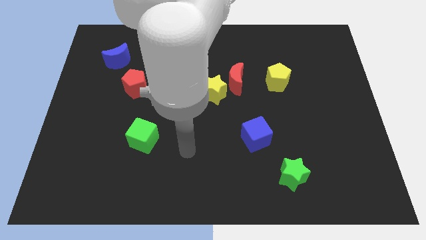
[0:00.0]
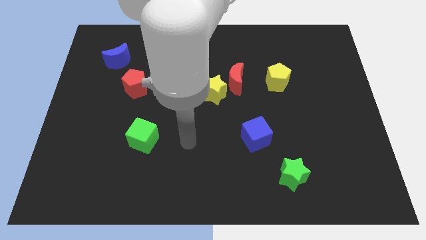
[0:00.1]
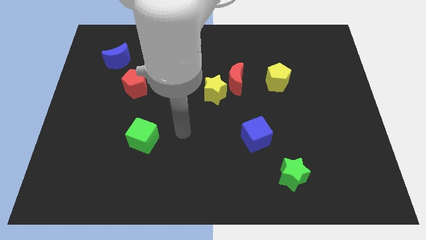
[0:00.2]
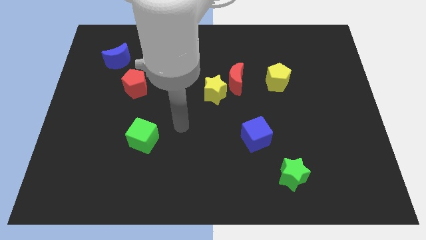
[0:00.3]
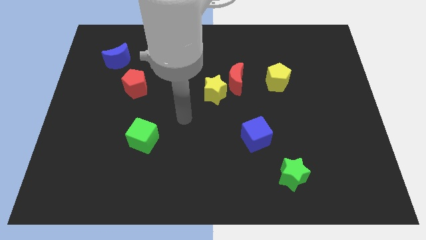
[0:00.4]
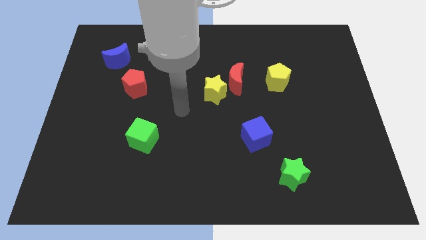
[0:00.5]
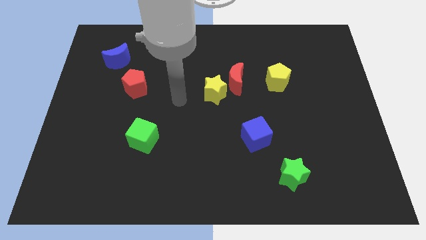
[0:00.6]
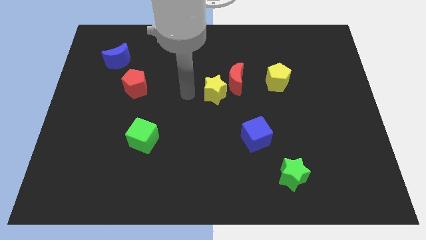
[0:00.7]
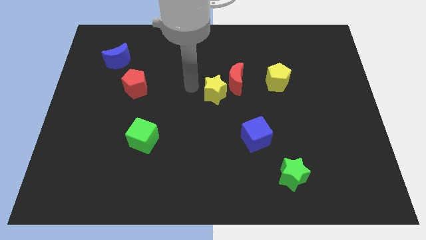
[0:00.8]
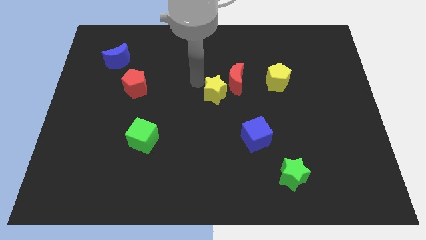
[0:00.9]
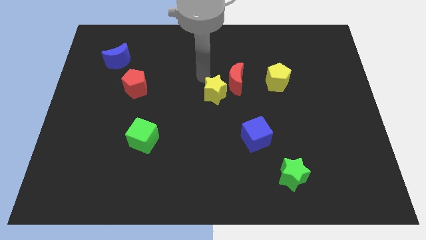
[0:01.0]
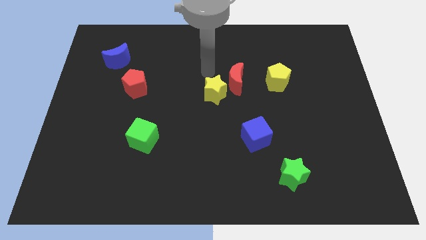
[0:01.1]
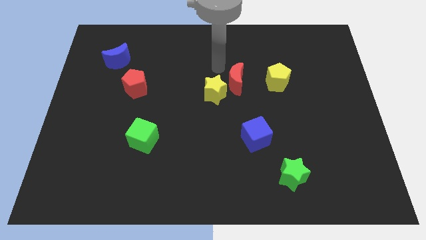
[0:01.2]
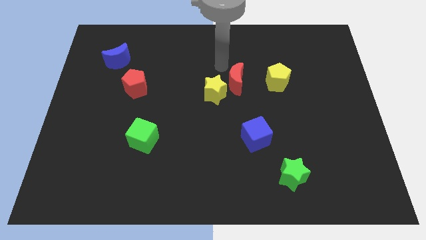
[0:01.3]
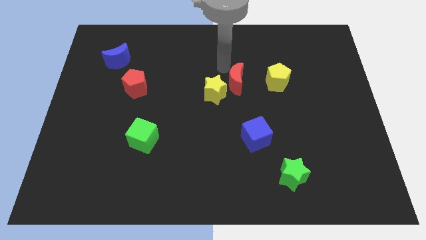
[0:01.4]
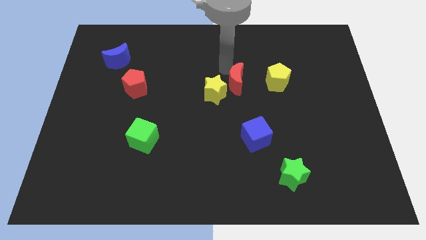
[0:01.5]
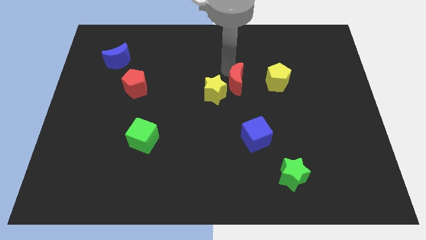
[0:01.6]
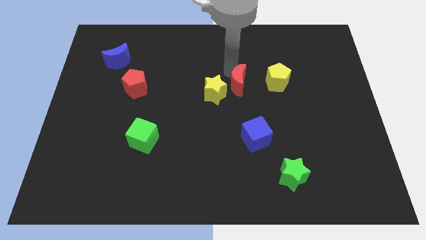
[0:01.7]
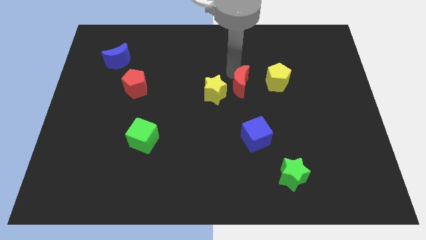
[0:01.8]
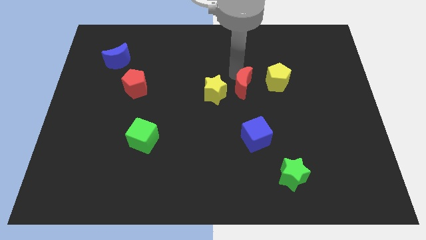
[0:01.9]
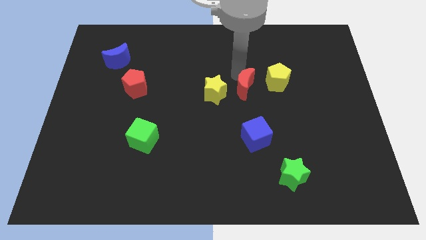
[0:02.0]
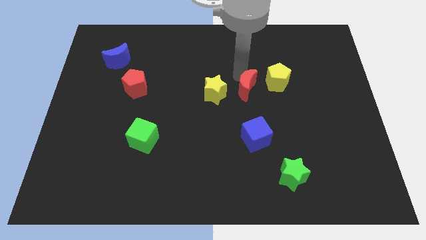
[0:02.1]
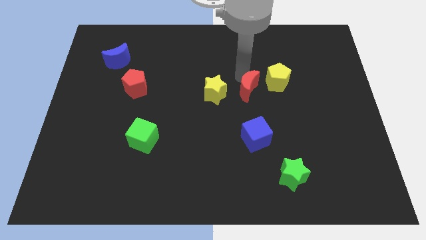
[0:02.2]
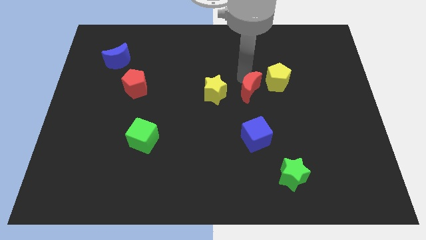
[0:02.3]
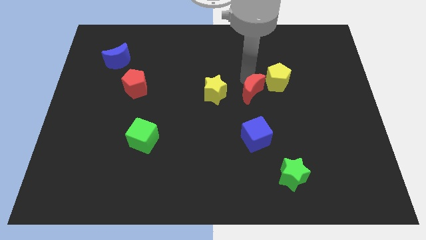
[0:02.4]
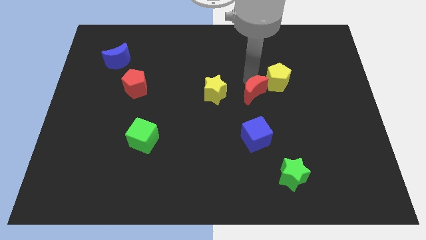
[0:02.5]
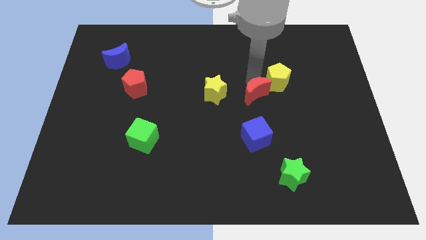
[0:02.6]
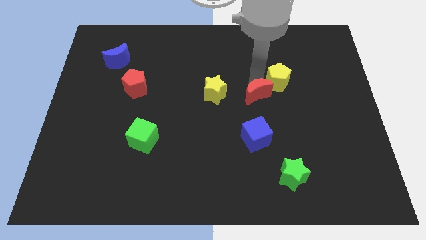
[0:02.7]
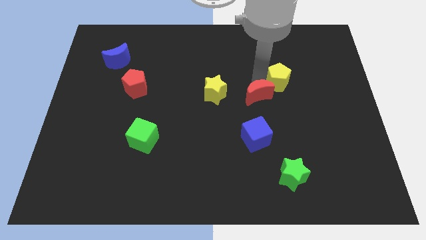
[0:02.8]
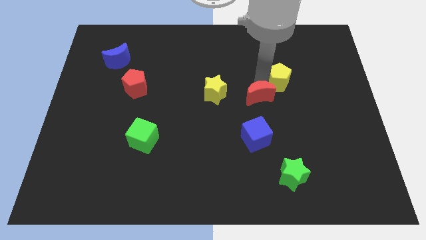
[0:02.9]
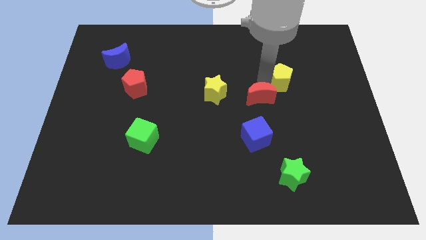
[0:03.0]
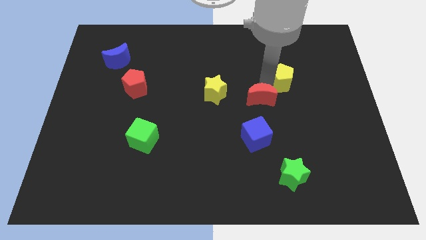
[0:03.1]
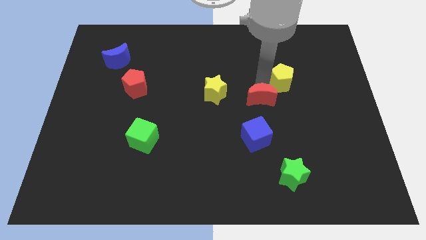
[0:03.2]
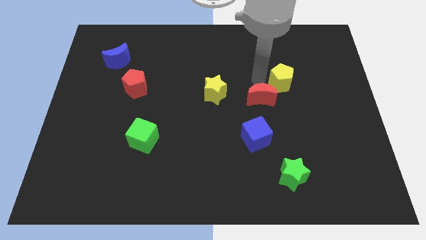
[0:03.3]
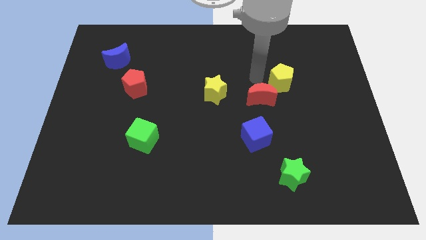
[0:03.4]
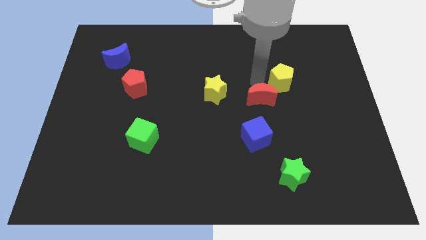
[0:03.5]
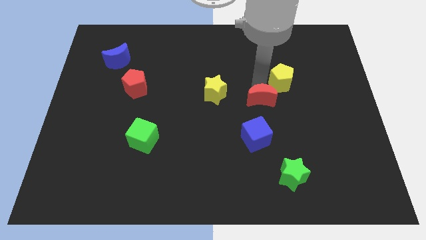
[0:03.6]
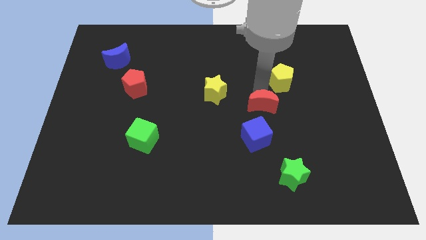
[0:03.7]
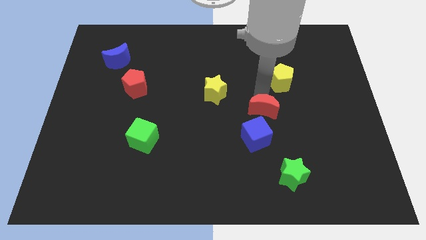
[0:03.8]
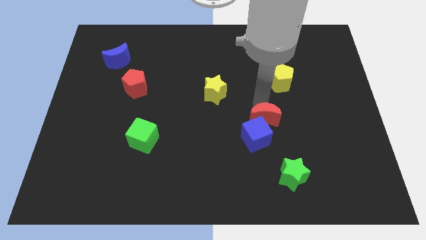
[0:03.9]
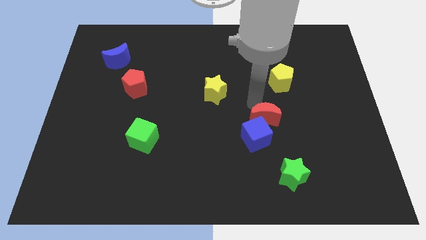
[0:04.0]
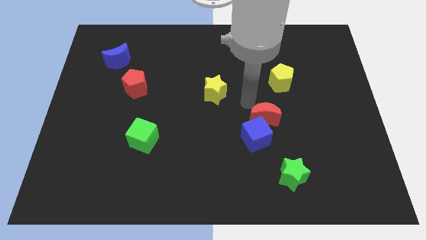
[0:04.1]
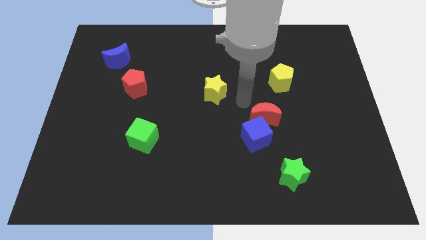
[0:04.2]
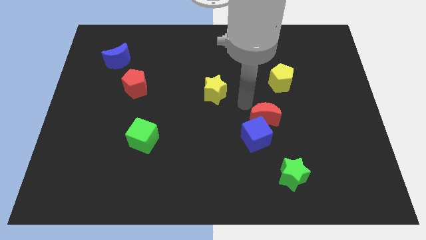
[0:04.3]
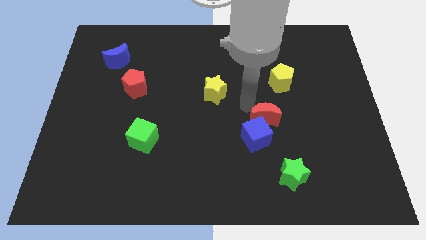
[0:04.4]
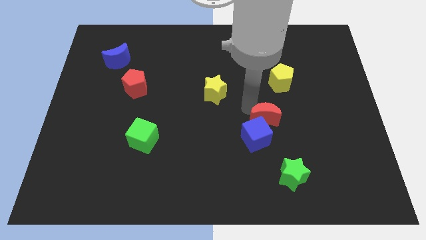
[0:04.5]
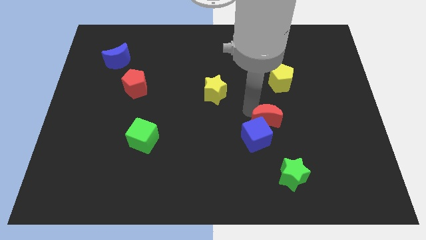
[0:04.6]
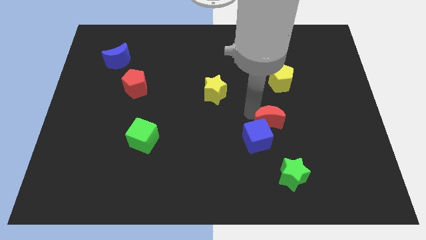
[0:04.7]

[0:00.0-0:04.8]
move the red moon to the top side of the green star

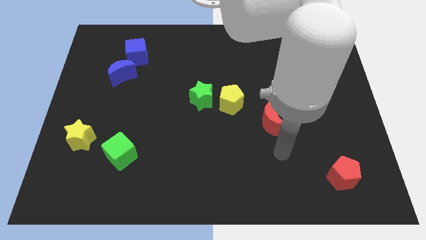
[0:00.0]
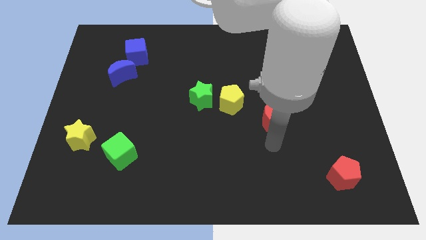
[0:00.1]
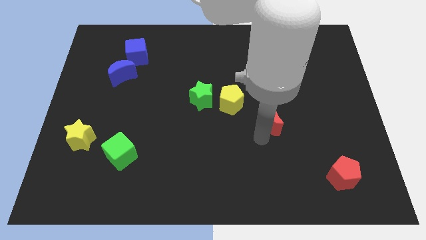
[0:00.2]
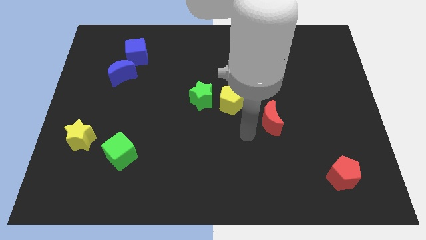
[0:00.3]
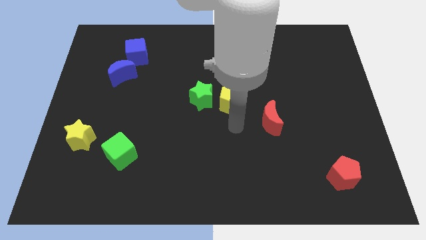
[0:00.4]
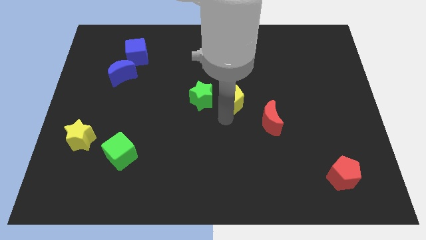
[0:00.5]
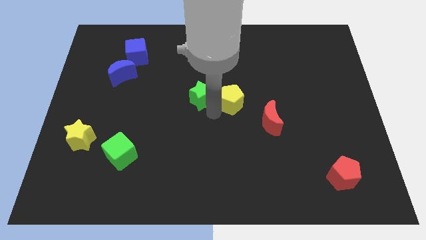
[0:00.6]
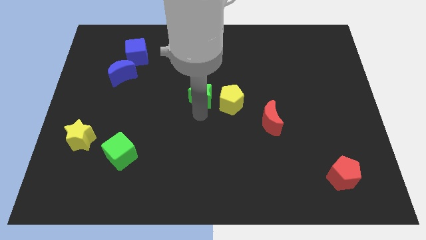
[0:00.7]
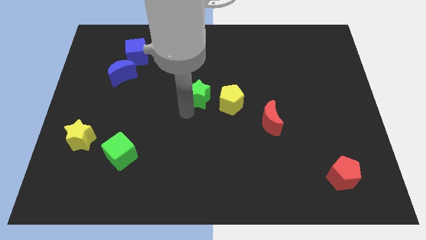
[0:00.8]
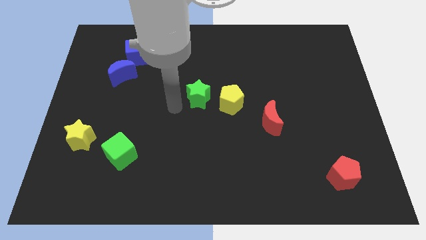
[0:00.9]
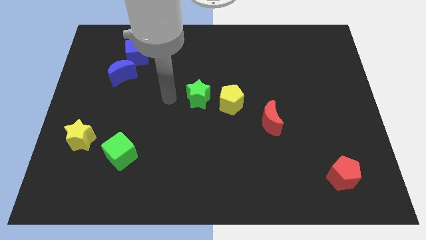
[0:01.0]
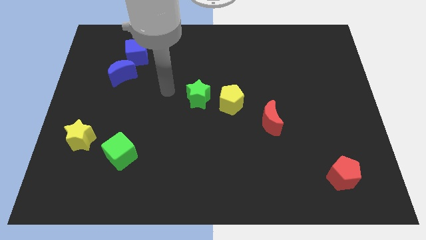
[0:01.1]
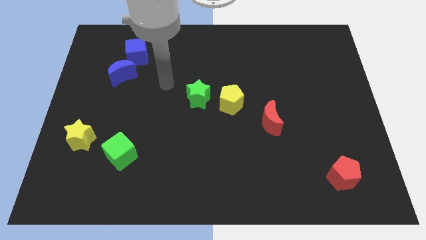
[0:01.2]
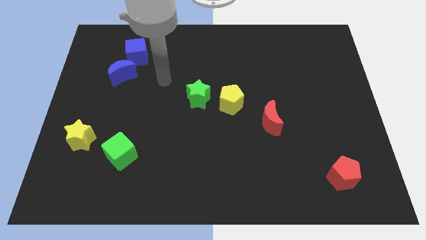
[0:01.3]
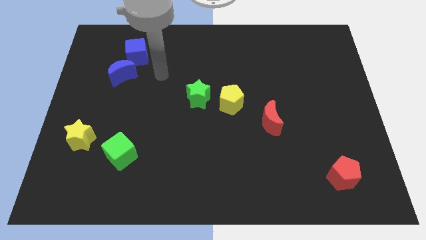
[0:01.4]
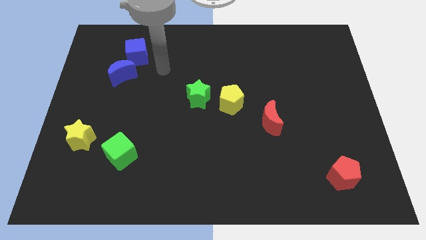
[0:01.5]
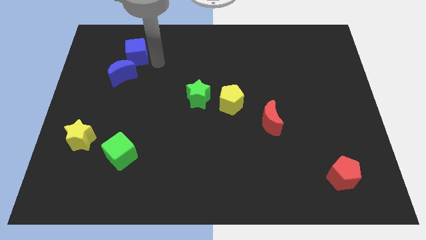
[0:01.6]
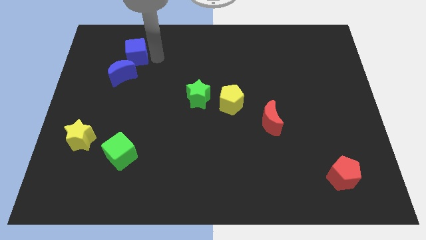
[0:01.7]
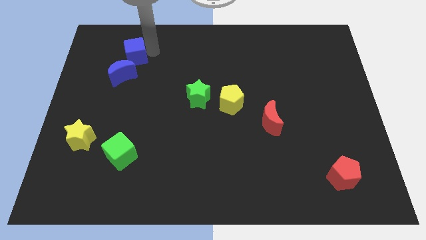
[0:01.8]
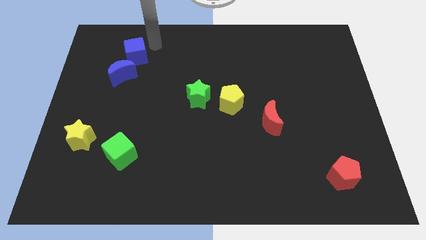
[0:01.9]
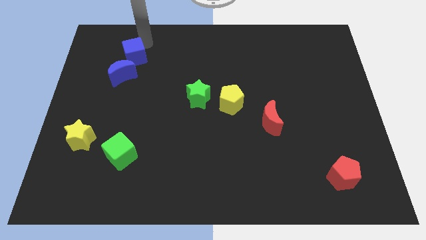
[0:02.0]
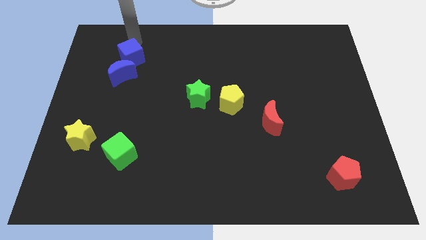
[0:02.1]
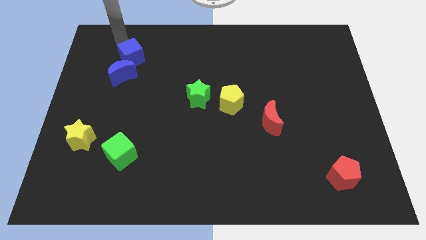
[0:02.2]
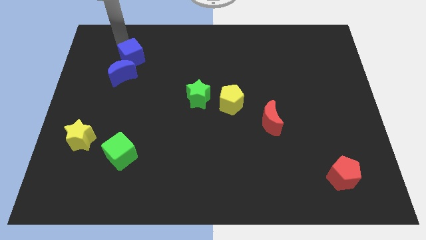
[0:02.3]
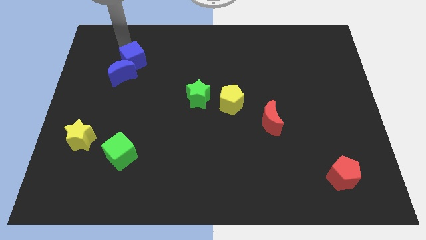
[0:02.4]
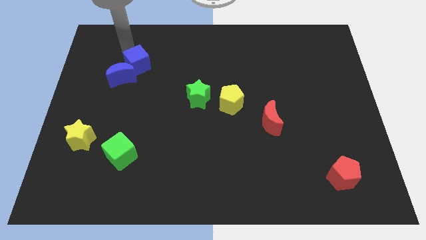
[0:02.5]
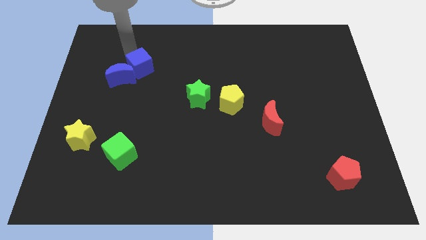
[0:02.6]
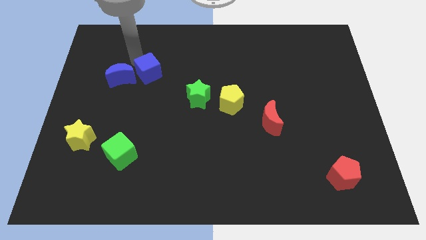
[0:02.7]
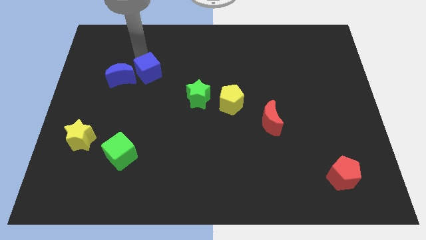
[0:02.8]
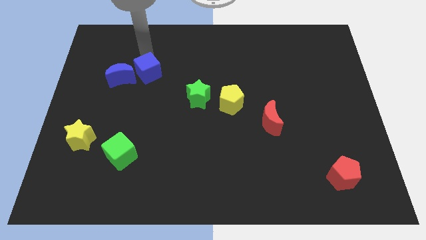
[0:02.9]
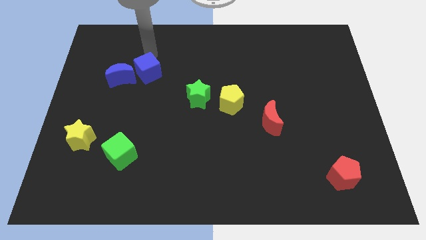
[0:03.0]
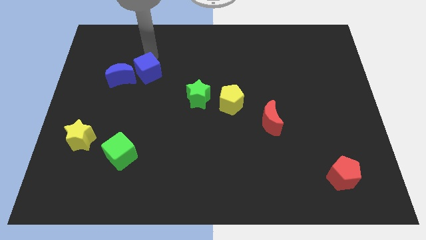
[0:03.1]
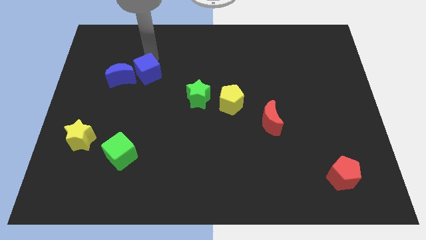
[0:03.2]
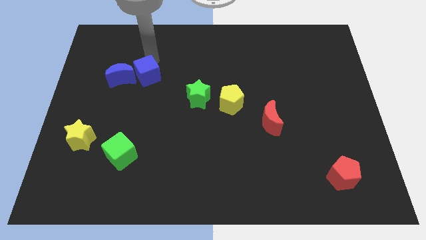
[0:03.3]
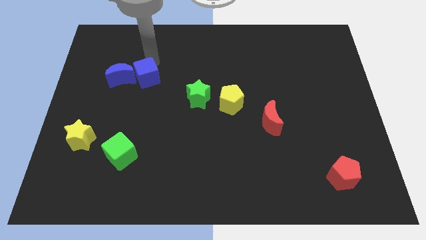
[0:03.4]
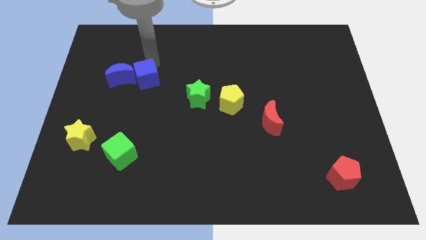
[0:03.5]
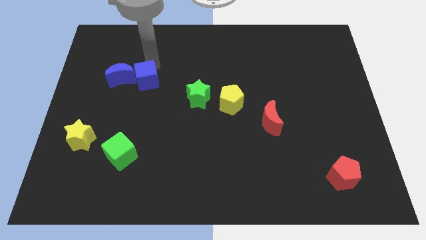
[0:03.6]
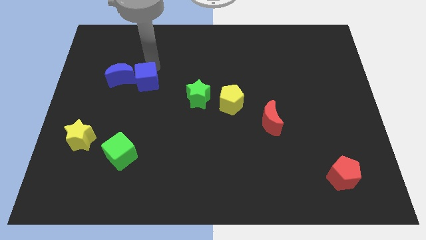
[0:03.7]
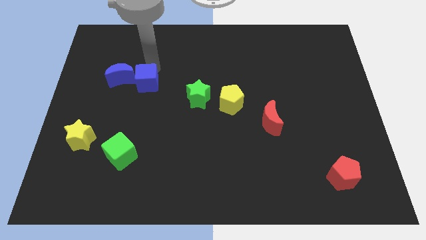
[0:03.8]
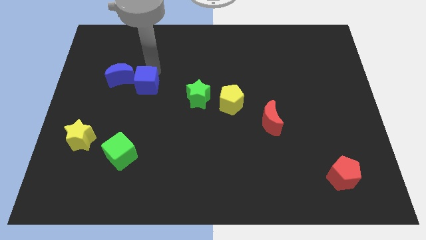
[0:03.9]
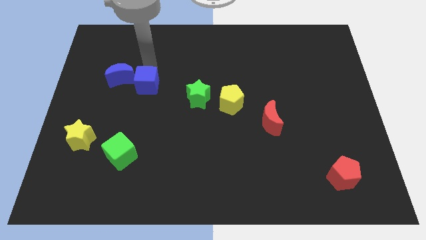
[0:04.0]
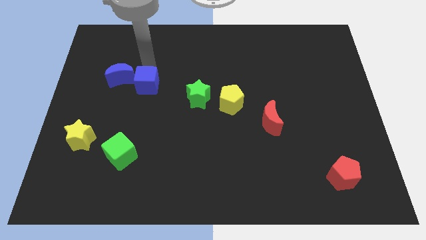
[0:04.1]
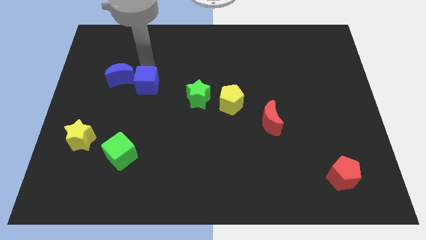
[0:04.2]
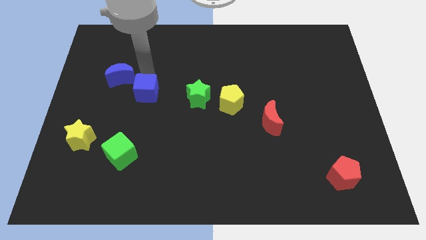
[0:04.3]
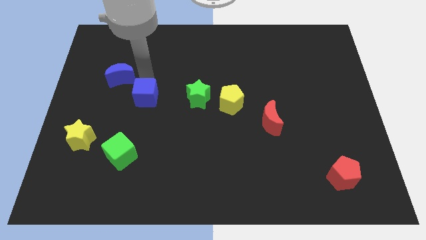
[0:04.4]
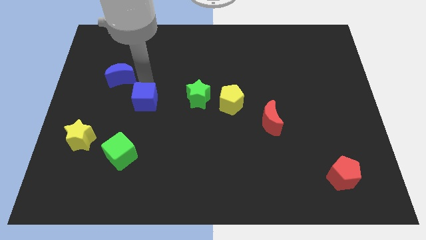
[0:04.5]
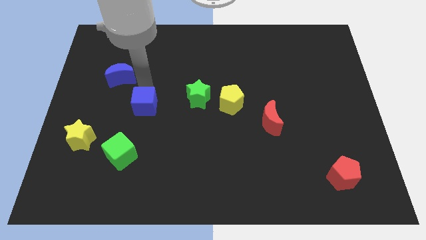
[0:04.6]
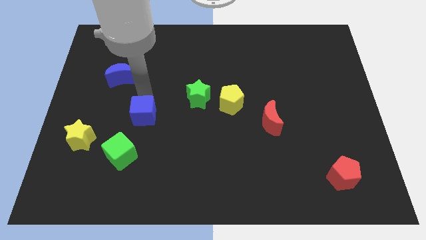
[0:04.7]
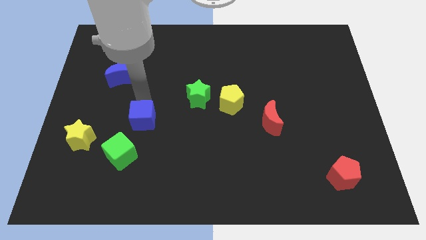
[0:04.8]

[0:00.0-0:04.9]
put the blue cube to the top right of the green cube
